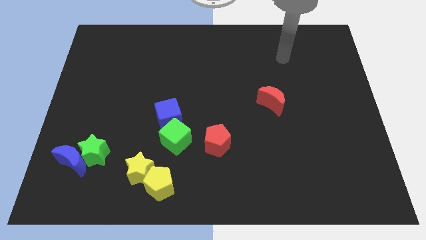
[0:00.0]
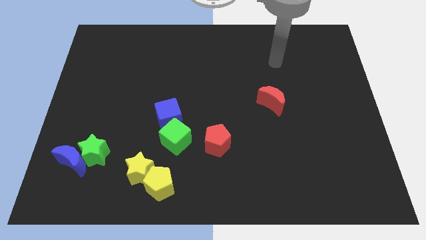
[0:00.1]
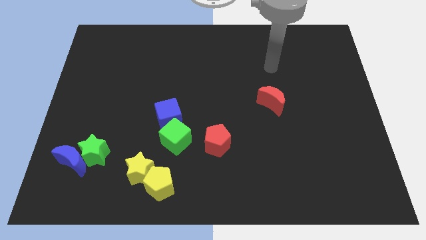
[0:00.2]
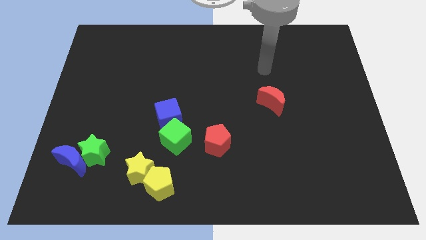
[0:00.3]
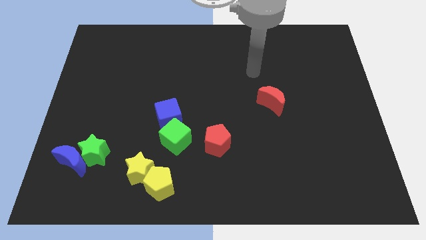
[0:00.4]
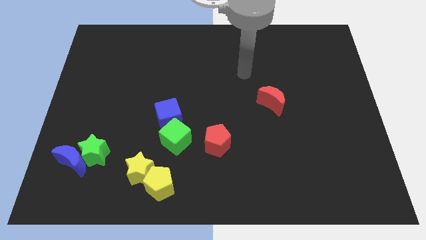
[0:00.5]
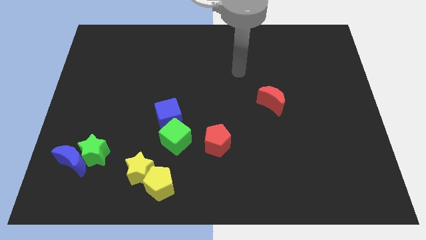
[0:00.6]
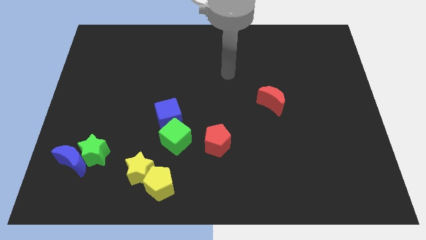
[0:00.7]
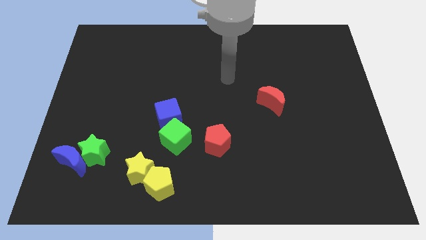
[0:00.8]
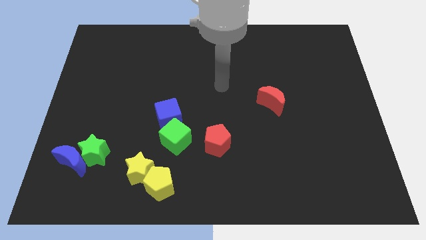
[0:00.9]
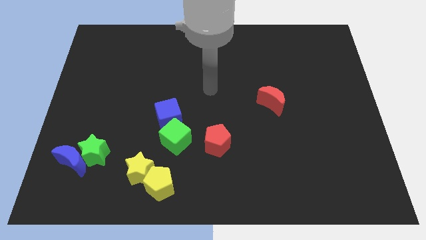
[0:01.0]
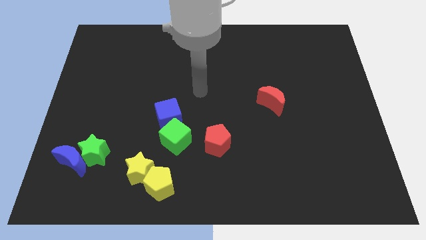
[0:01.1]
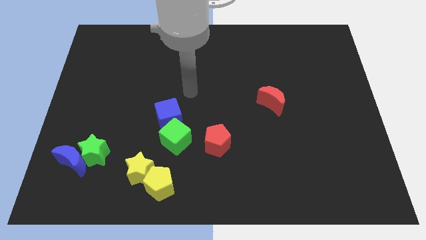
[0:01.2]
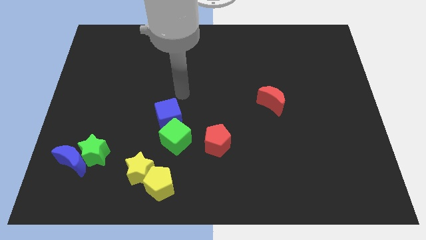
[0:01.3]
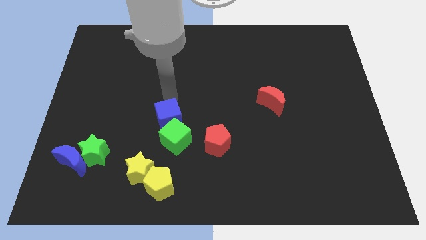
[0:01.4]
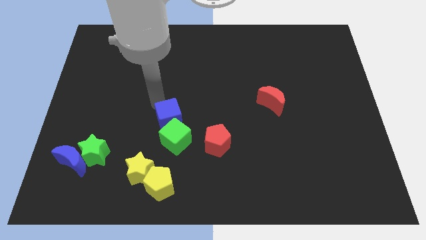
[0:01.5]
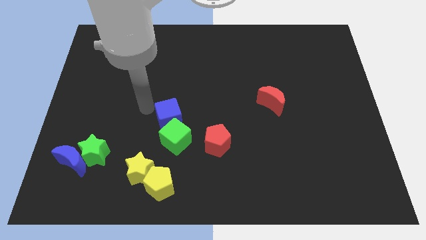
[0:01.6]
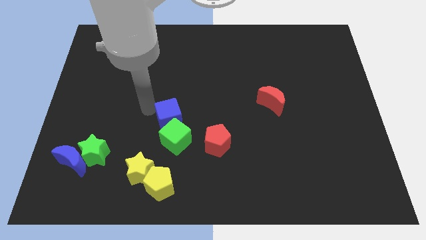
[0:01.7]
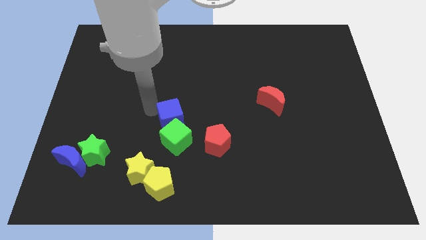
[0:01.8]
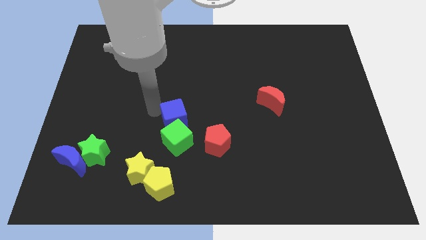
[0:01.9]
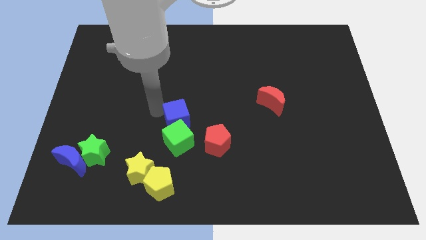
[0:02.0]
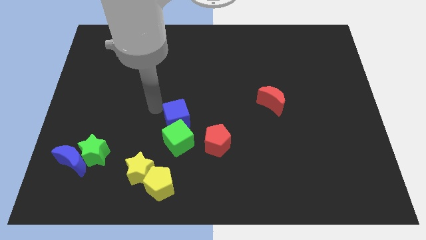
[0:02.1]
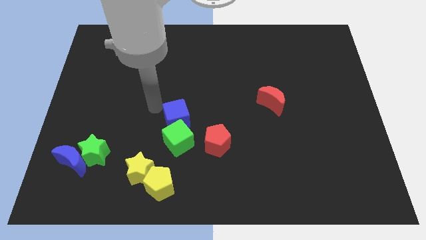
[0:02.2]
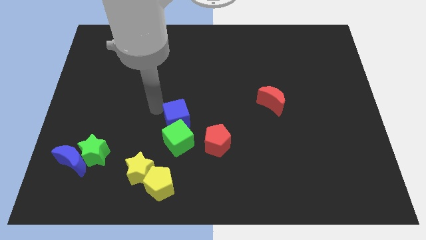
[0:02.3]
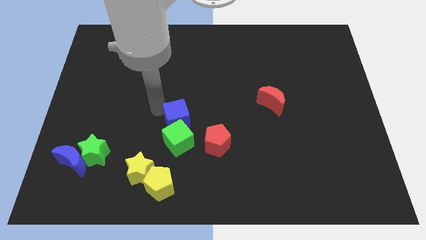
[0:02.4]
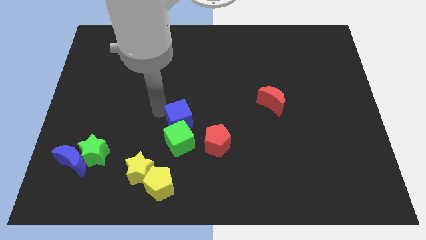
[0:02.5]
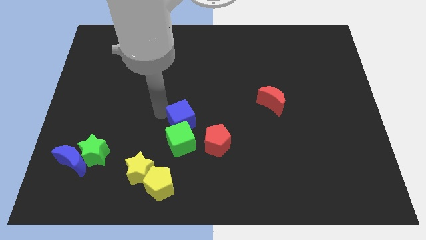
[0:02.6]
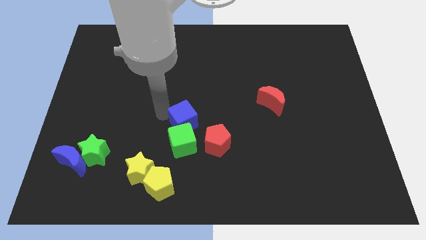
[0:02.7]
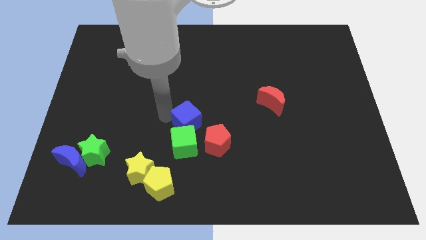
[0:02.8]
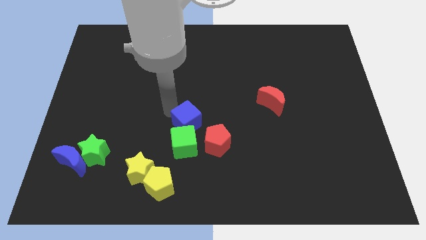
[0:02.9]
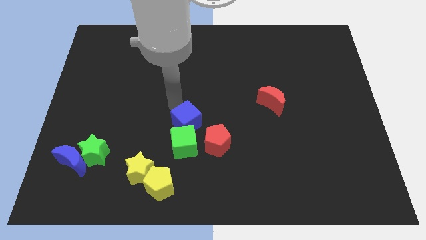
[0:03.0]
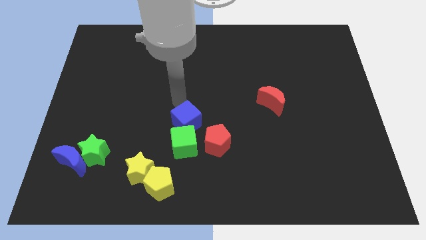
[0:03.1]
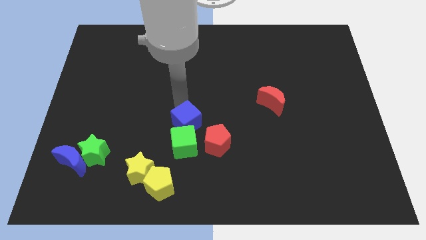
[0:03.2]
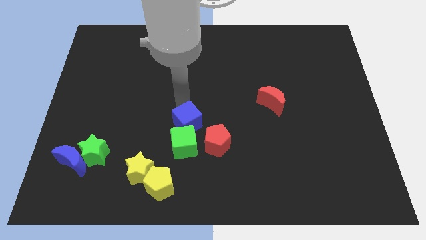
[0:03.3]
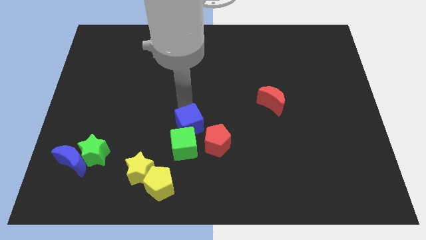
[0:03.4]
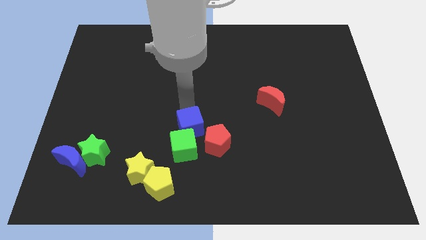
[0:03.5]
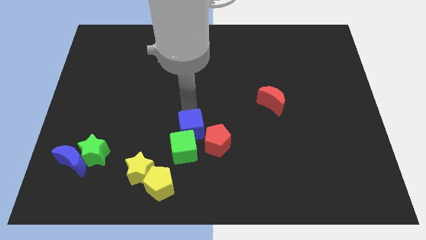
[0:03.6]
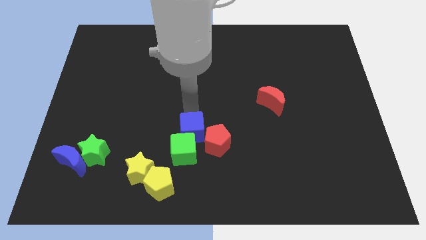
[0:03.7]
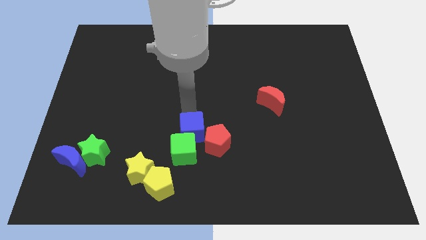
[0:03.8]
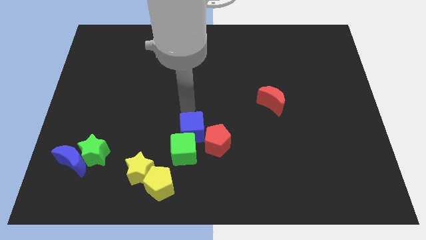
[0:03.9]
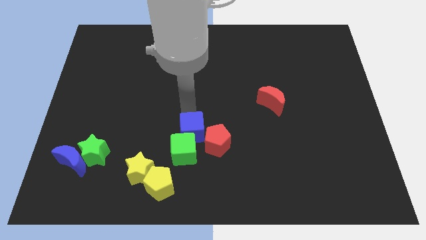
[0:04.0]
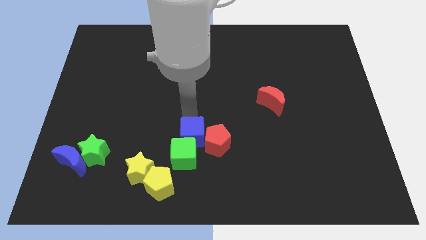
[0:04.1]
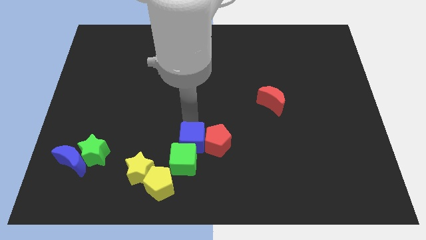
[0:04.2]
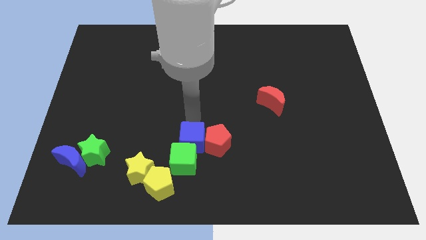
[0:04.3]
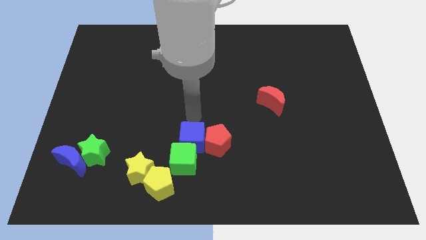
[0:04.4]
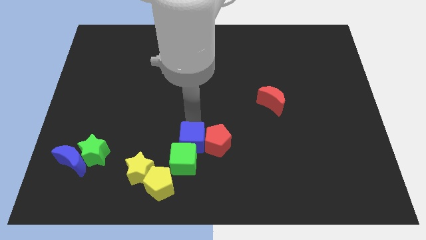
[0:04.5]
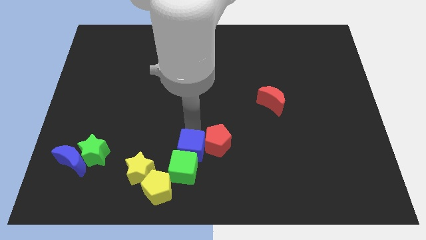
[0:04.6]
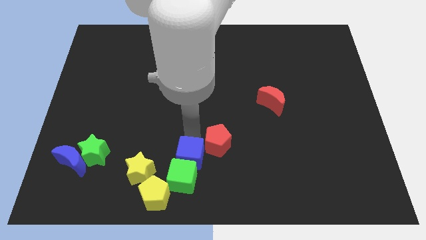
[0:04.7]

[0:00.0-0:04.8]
move the blue cube to the right side of the yellow star

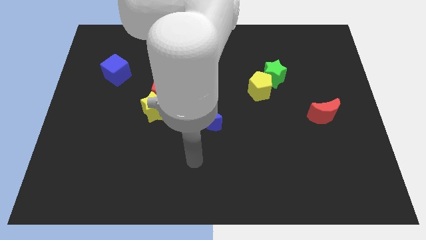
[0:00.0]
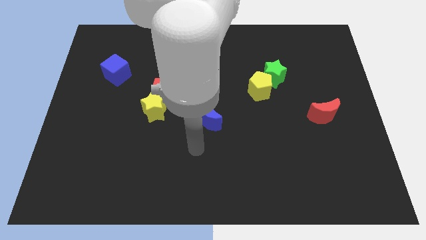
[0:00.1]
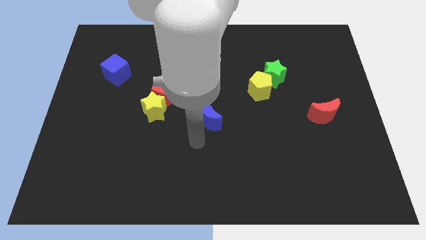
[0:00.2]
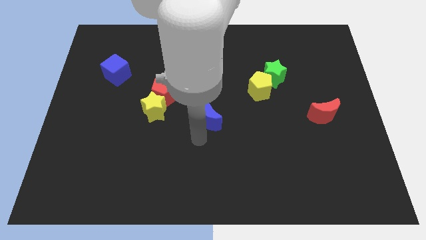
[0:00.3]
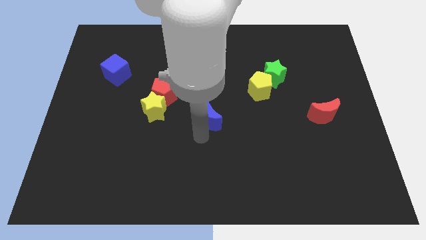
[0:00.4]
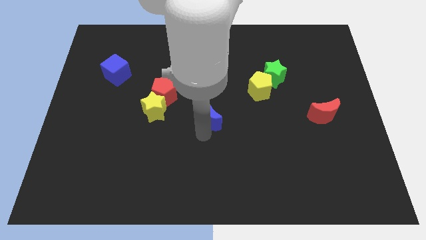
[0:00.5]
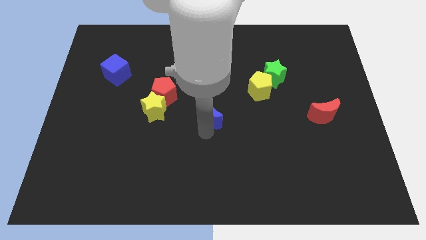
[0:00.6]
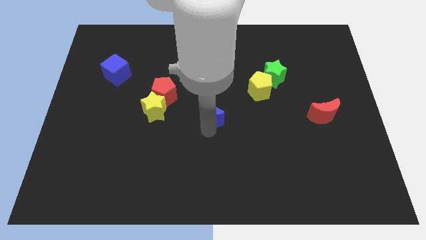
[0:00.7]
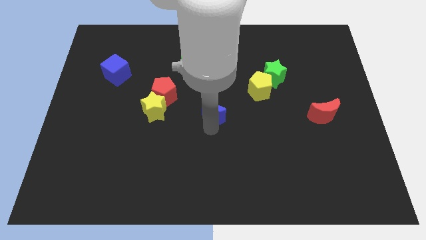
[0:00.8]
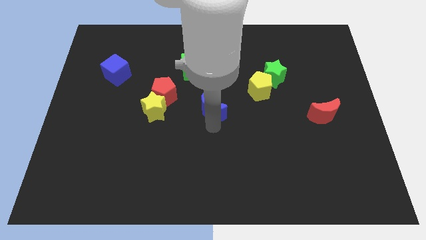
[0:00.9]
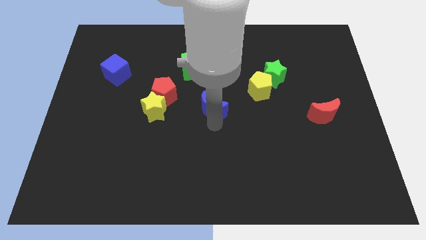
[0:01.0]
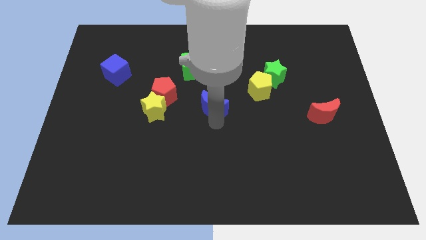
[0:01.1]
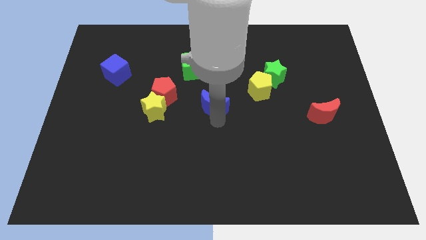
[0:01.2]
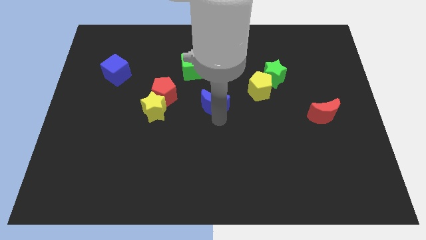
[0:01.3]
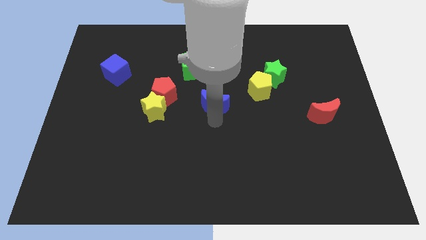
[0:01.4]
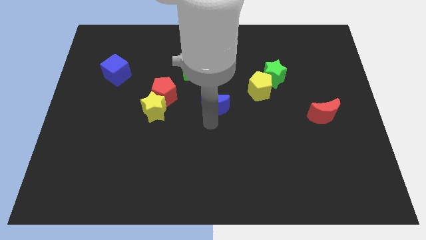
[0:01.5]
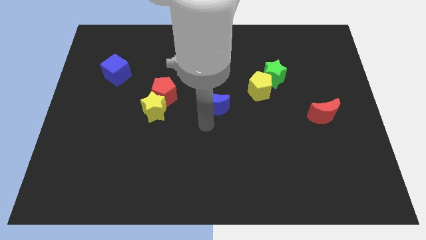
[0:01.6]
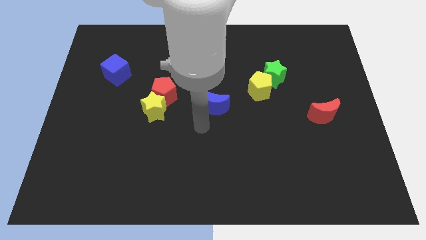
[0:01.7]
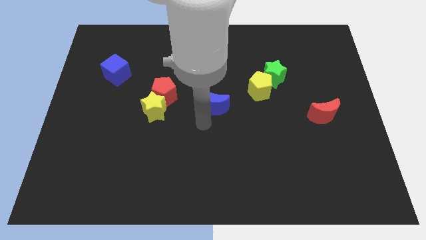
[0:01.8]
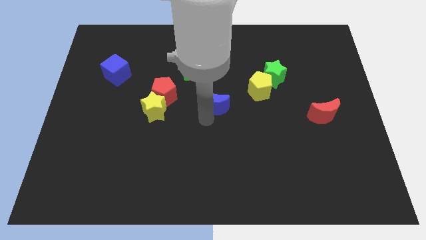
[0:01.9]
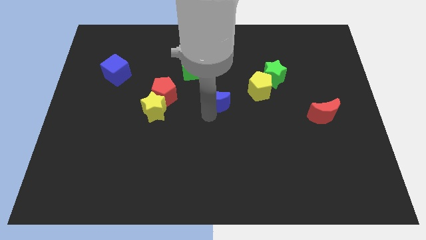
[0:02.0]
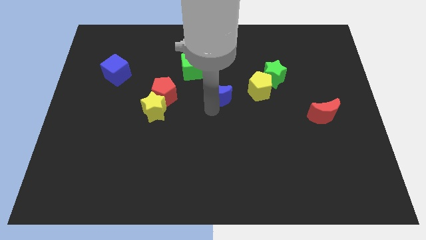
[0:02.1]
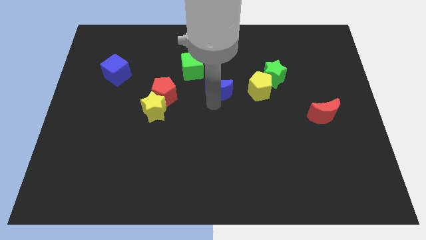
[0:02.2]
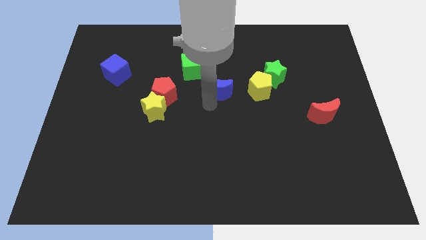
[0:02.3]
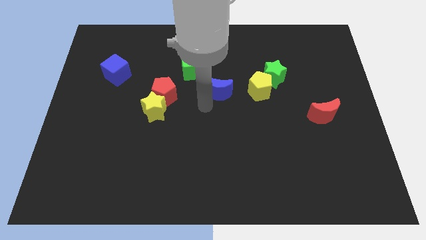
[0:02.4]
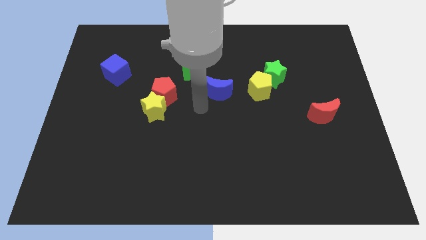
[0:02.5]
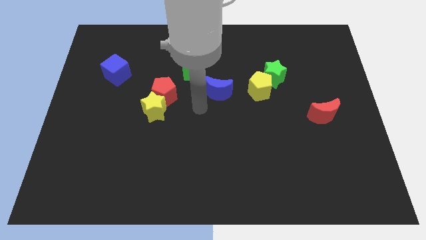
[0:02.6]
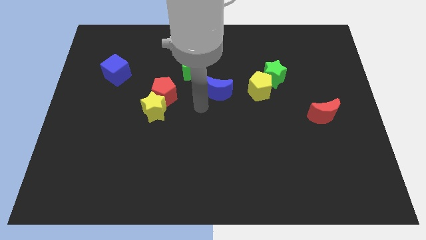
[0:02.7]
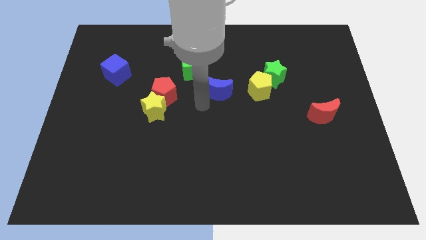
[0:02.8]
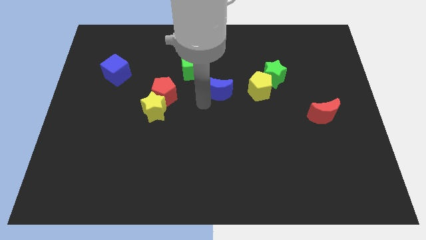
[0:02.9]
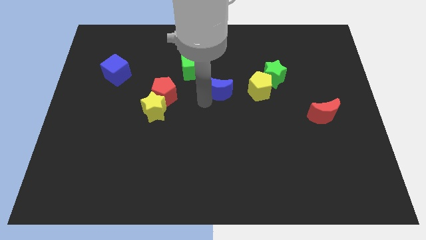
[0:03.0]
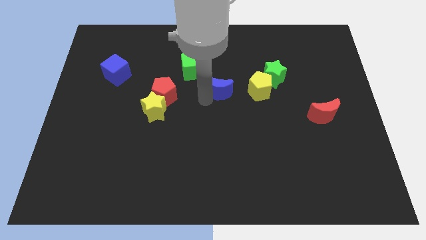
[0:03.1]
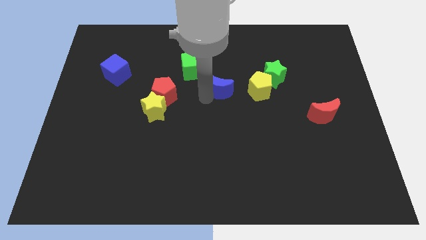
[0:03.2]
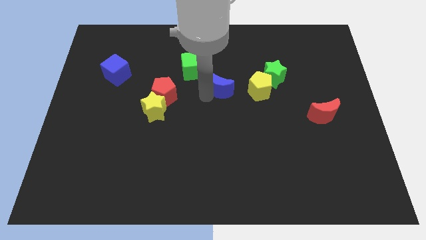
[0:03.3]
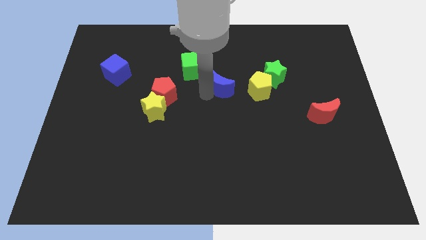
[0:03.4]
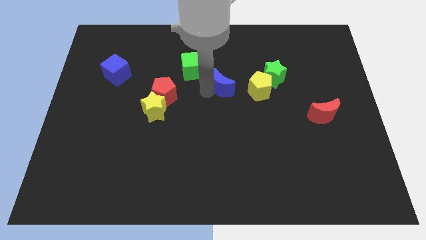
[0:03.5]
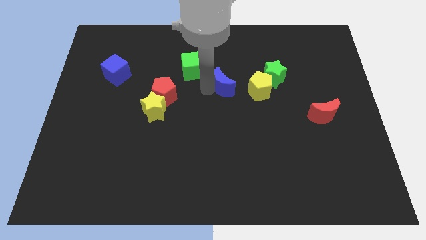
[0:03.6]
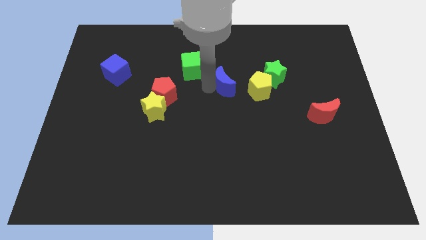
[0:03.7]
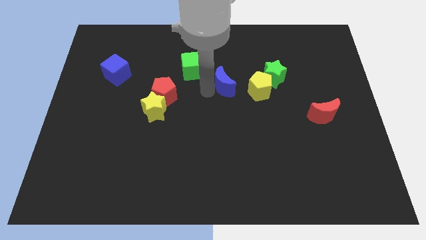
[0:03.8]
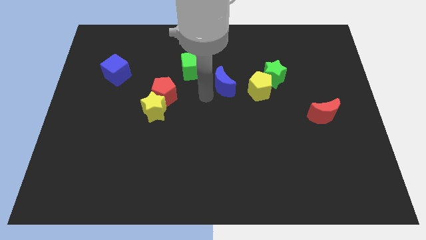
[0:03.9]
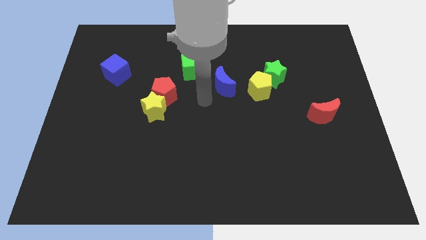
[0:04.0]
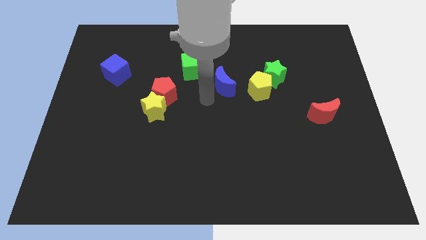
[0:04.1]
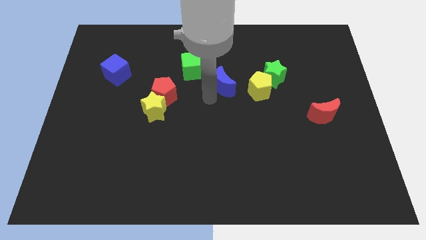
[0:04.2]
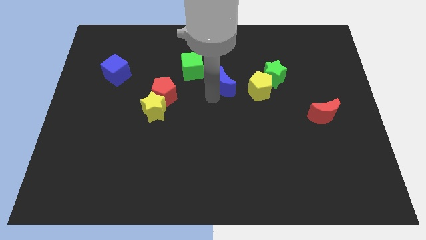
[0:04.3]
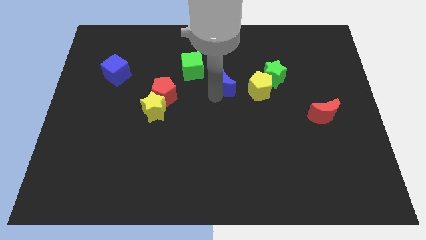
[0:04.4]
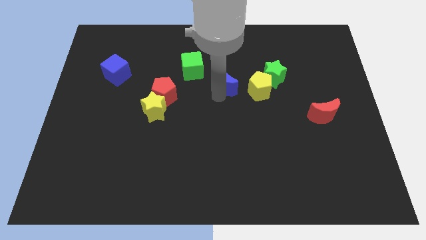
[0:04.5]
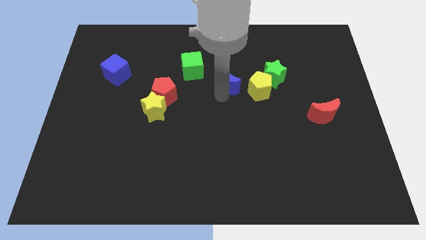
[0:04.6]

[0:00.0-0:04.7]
push the blue moon to the top left of the yellow pentagon
